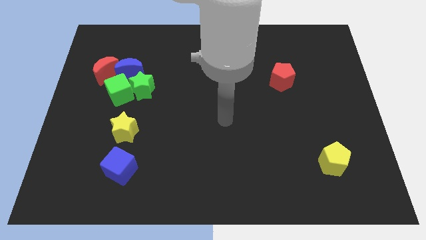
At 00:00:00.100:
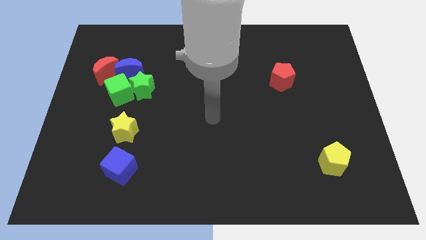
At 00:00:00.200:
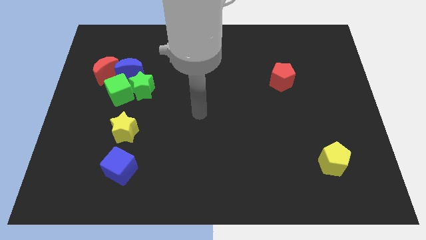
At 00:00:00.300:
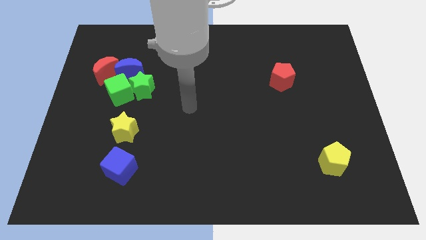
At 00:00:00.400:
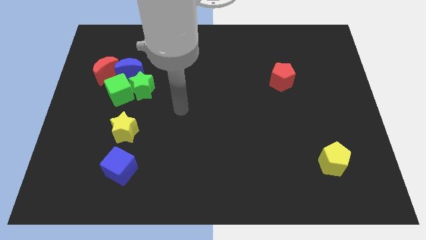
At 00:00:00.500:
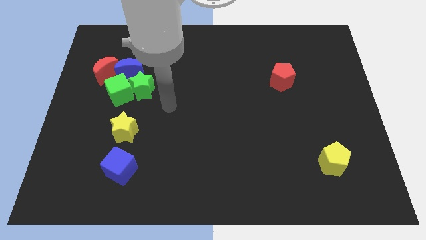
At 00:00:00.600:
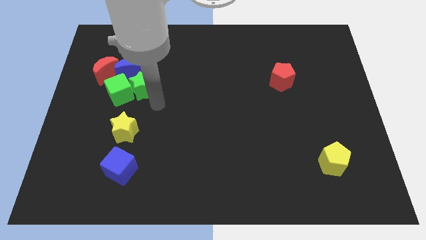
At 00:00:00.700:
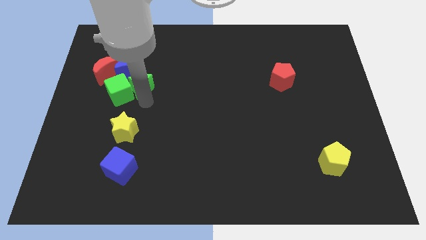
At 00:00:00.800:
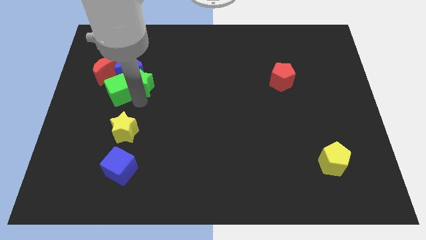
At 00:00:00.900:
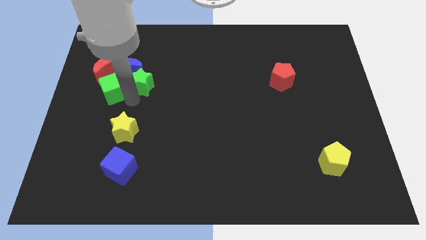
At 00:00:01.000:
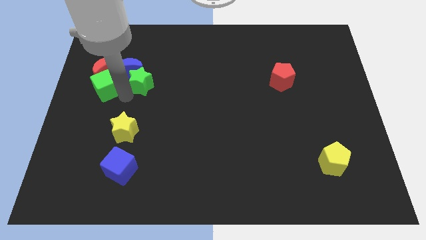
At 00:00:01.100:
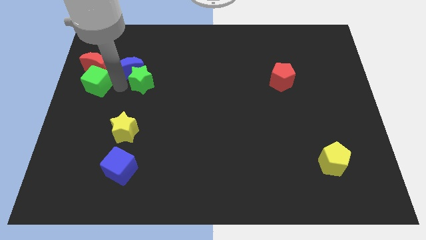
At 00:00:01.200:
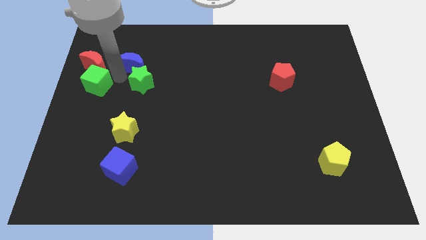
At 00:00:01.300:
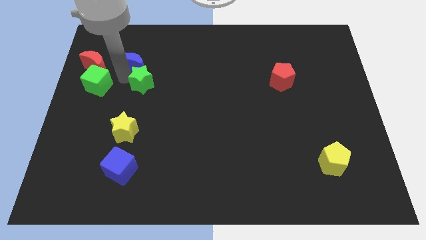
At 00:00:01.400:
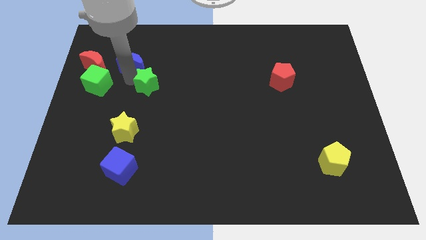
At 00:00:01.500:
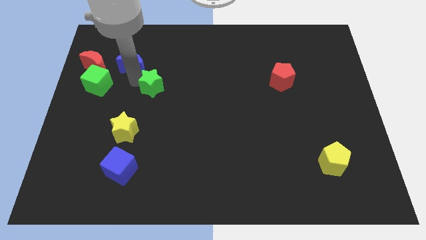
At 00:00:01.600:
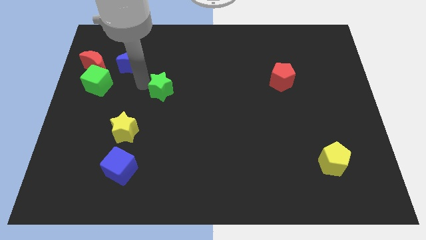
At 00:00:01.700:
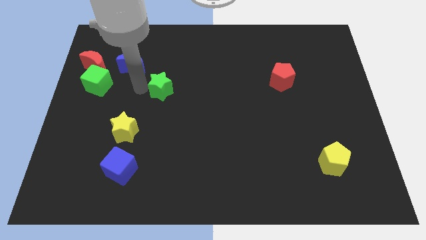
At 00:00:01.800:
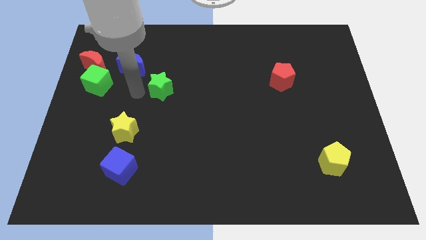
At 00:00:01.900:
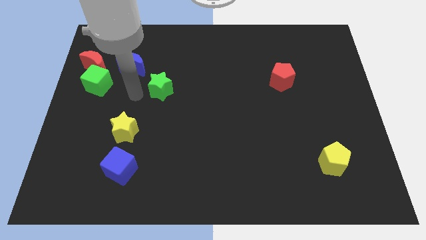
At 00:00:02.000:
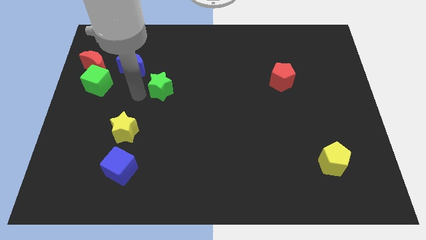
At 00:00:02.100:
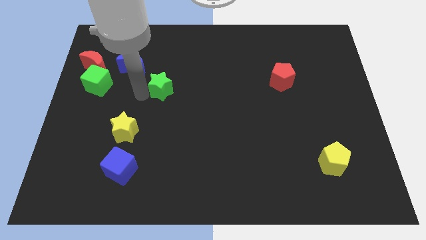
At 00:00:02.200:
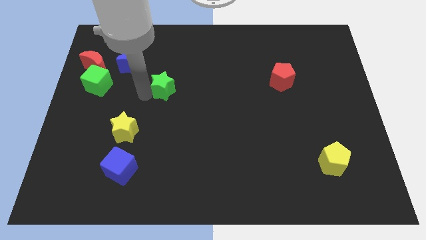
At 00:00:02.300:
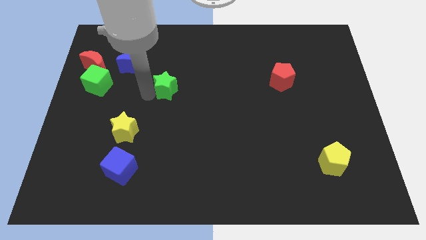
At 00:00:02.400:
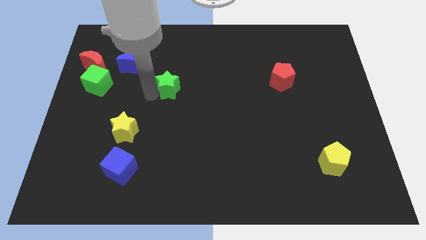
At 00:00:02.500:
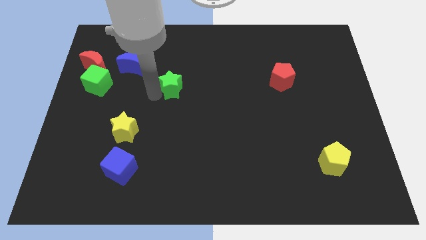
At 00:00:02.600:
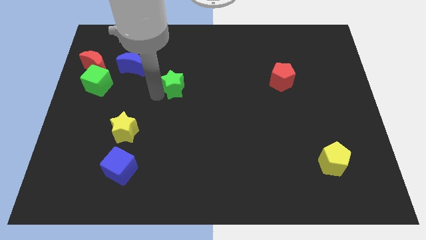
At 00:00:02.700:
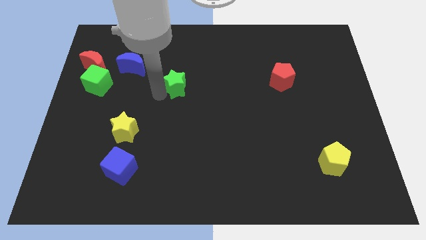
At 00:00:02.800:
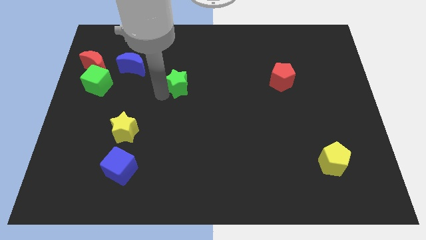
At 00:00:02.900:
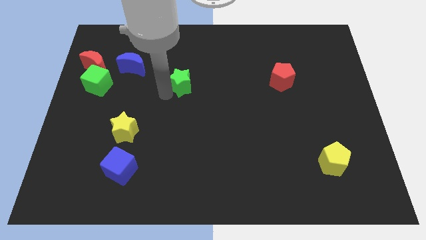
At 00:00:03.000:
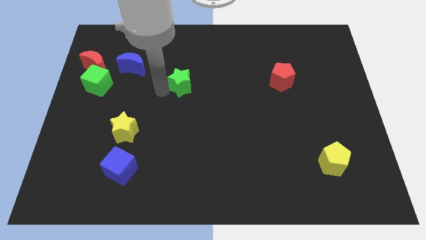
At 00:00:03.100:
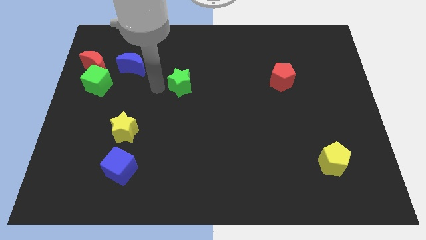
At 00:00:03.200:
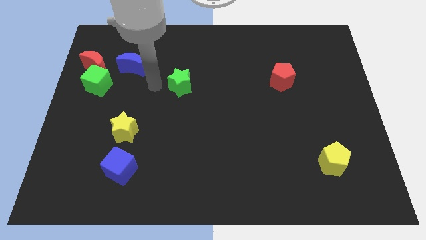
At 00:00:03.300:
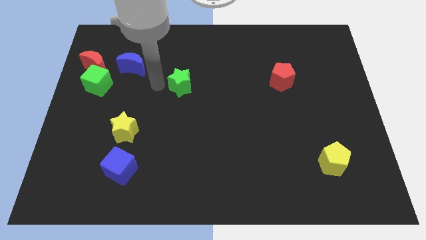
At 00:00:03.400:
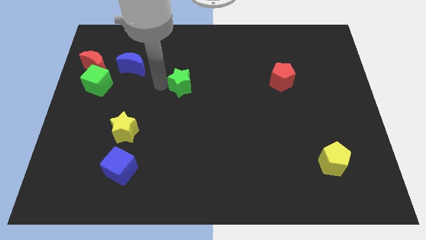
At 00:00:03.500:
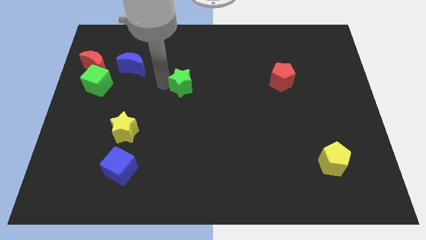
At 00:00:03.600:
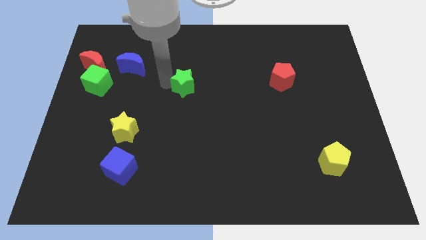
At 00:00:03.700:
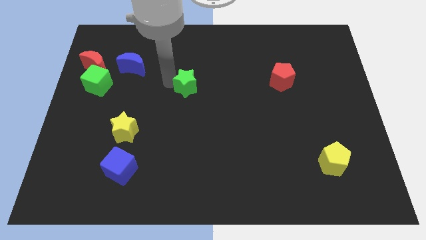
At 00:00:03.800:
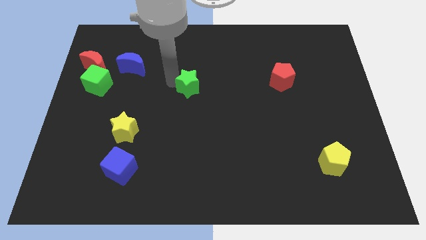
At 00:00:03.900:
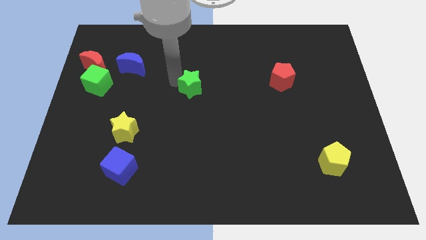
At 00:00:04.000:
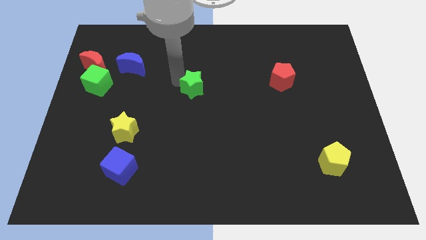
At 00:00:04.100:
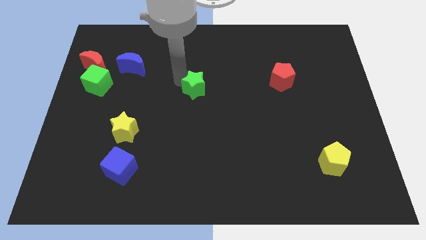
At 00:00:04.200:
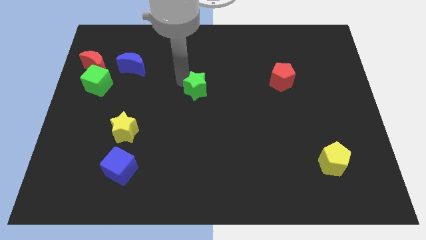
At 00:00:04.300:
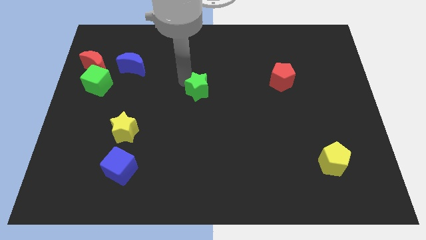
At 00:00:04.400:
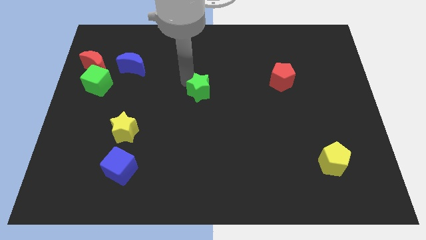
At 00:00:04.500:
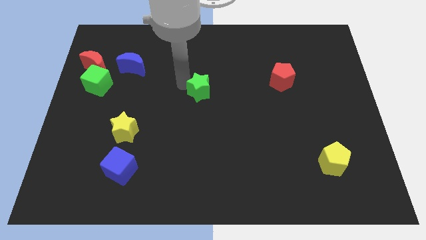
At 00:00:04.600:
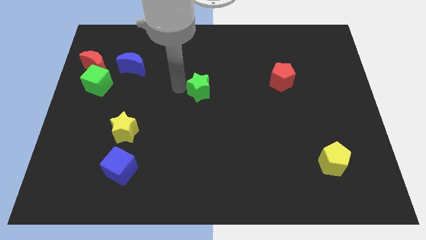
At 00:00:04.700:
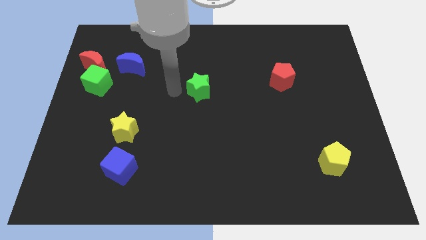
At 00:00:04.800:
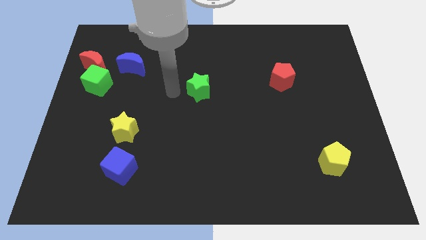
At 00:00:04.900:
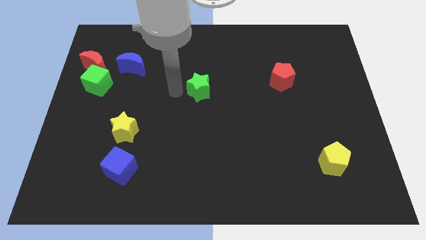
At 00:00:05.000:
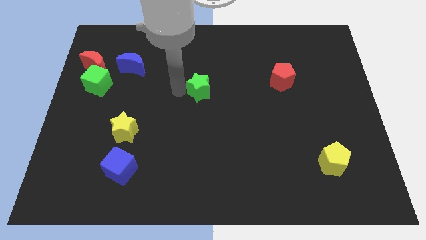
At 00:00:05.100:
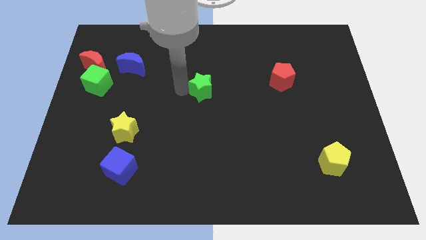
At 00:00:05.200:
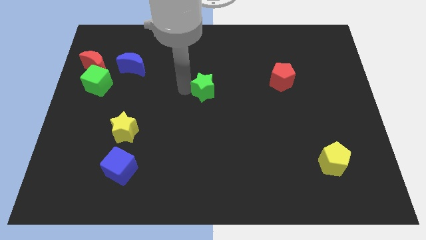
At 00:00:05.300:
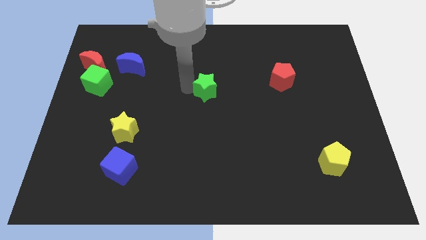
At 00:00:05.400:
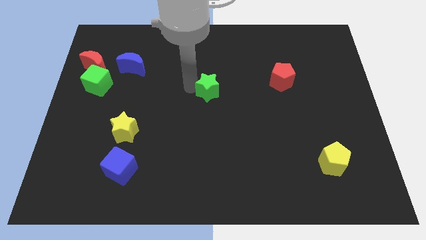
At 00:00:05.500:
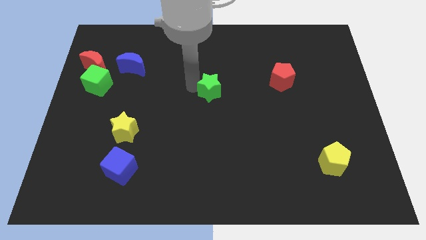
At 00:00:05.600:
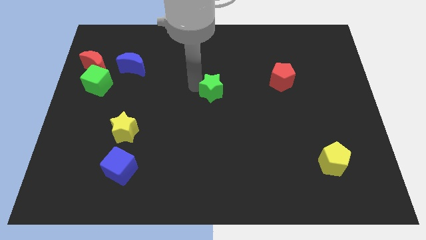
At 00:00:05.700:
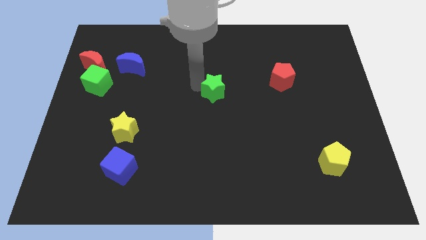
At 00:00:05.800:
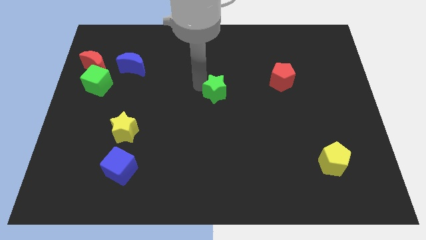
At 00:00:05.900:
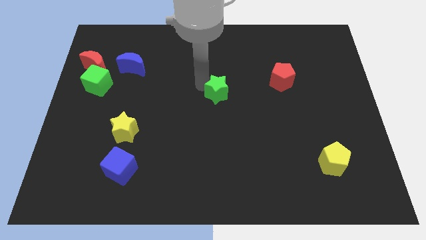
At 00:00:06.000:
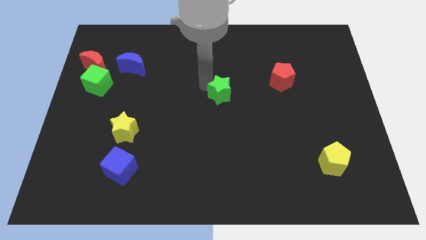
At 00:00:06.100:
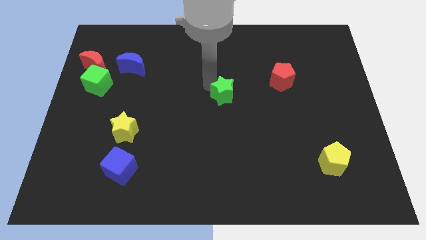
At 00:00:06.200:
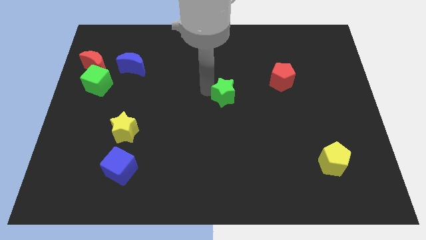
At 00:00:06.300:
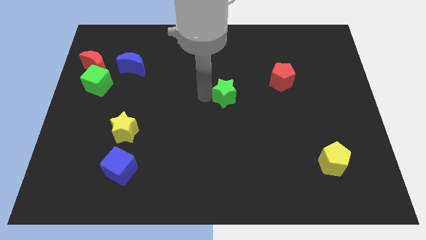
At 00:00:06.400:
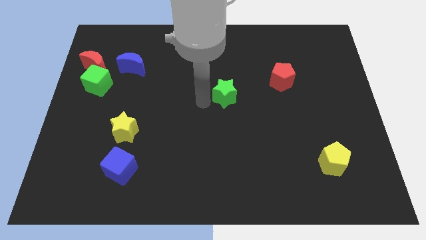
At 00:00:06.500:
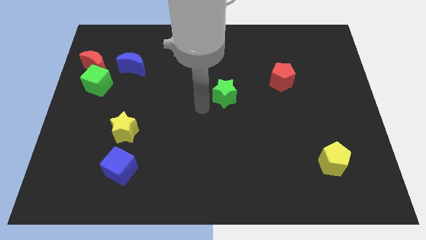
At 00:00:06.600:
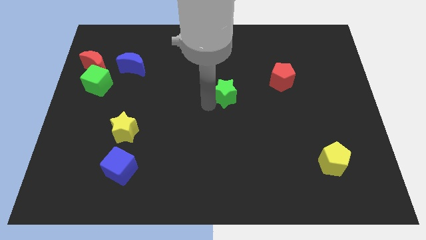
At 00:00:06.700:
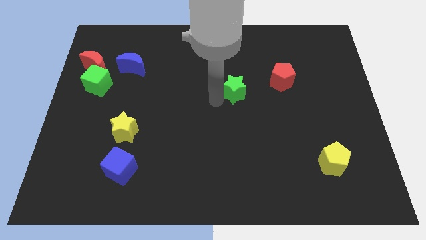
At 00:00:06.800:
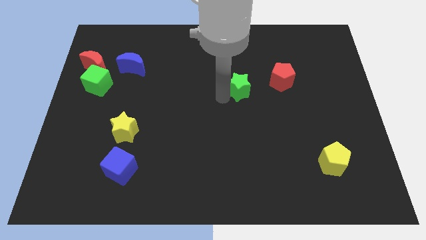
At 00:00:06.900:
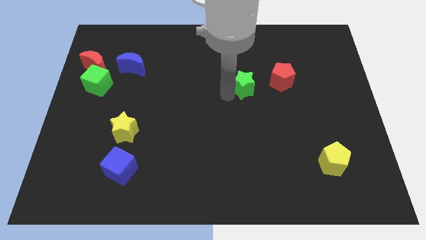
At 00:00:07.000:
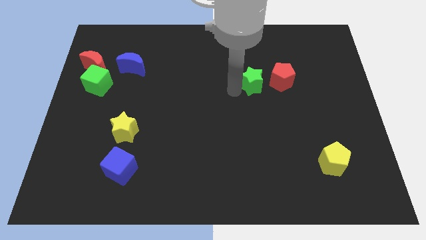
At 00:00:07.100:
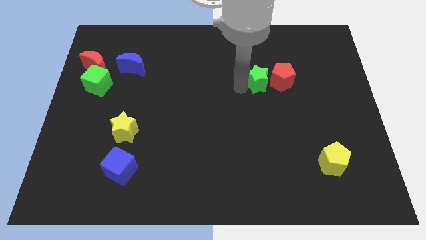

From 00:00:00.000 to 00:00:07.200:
push the green star next to the red pentagon
